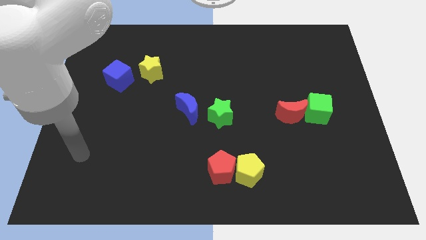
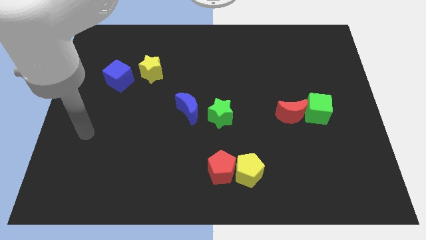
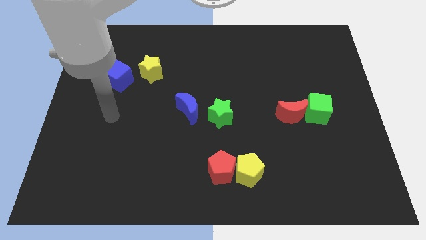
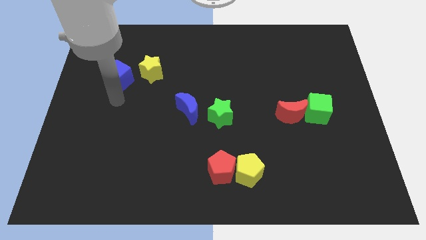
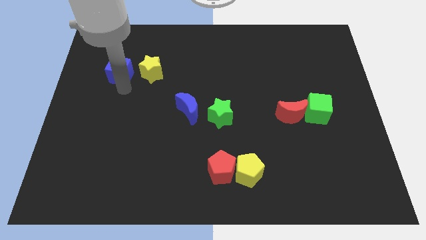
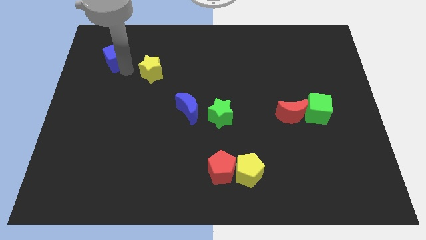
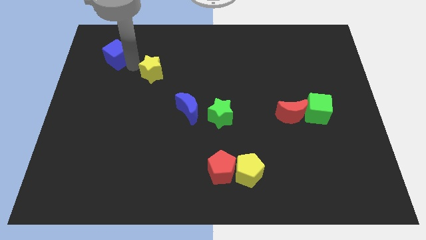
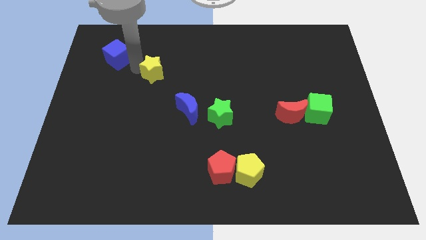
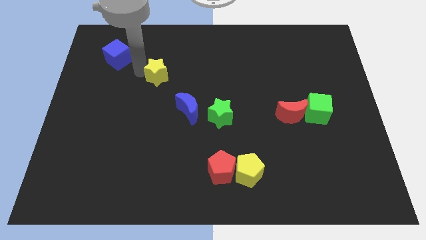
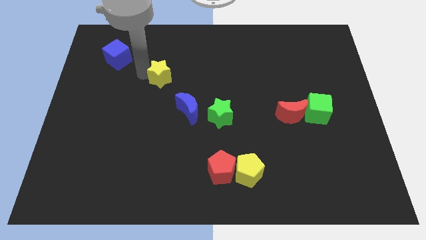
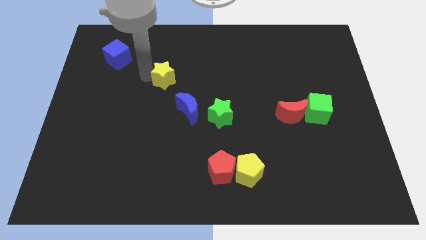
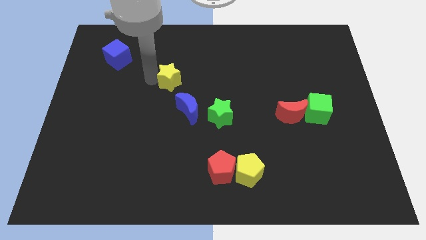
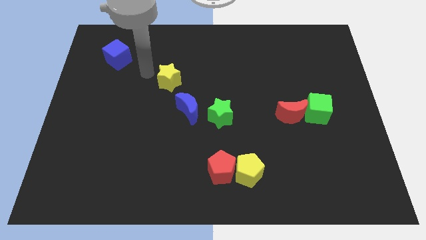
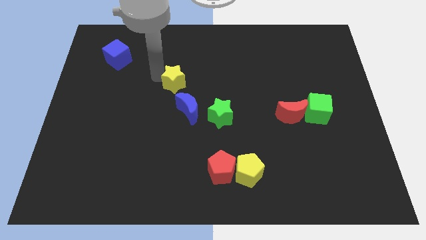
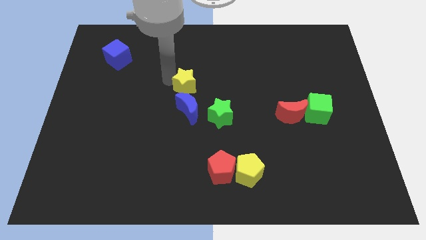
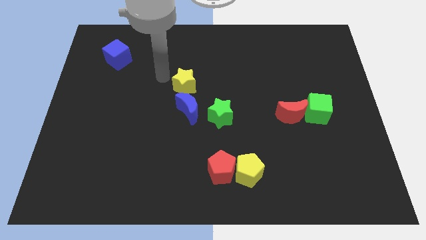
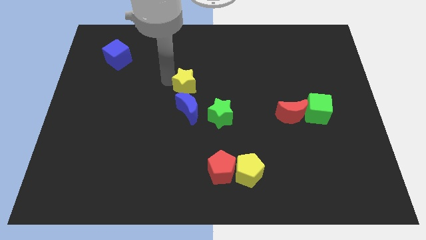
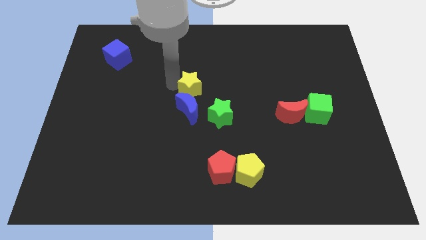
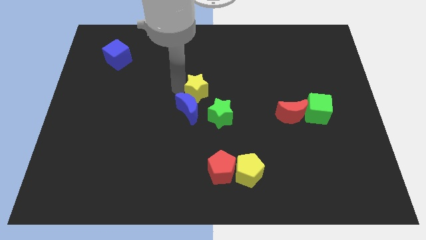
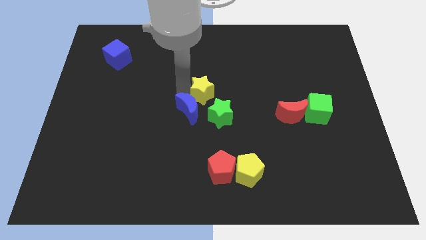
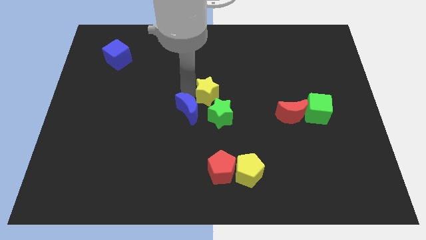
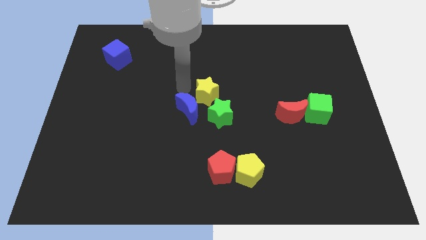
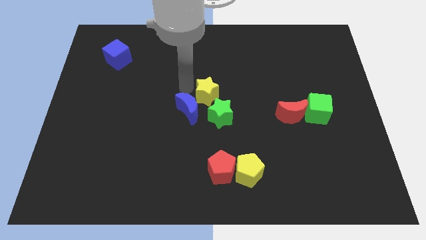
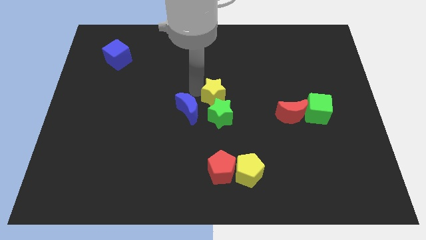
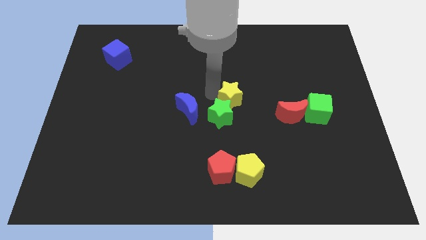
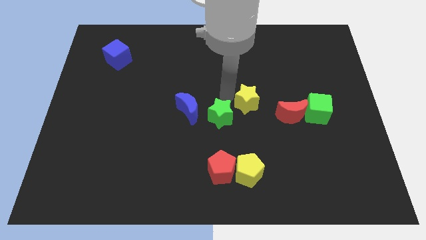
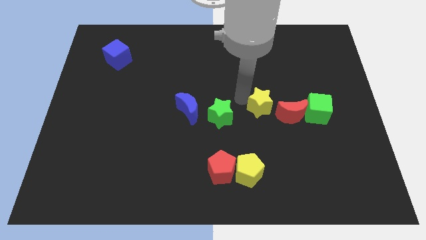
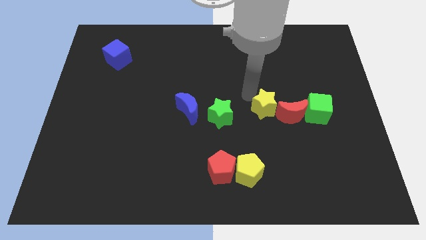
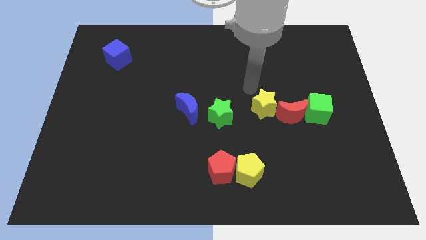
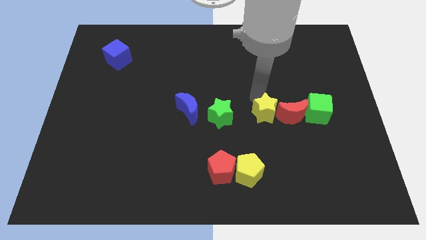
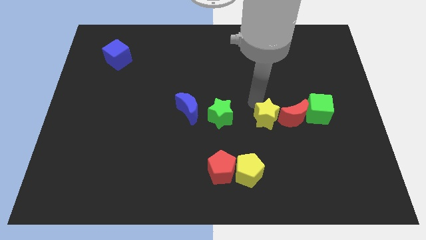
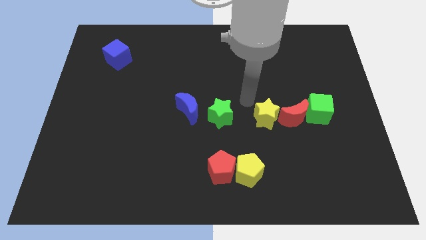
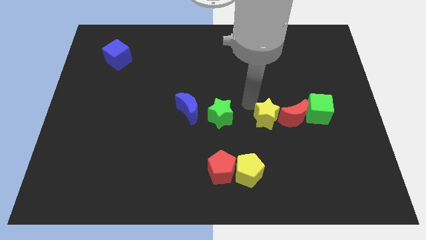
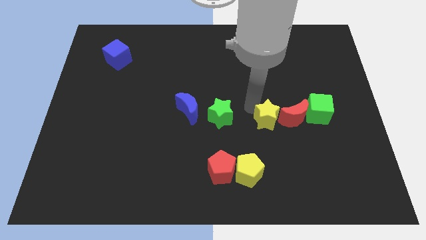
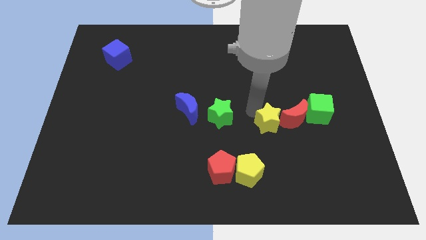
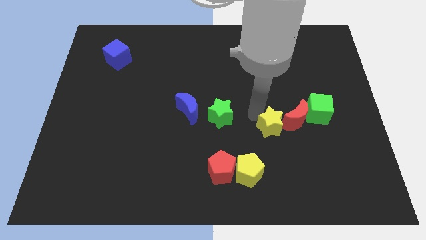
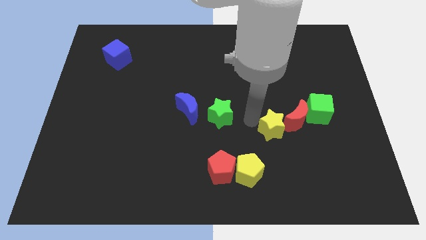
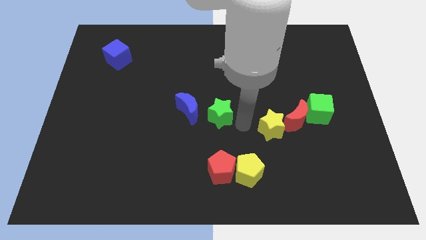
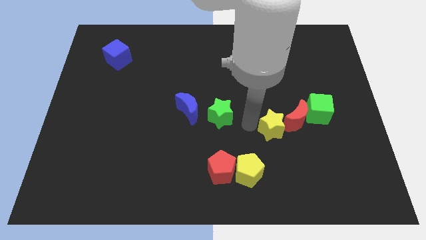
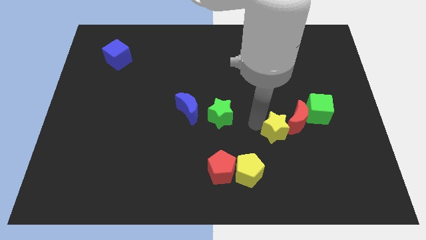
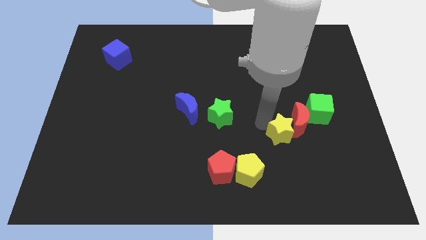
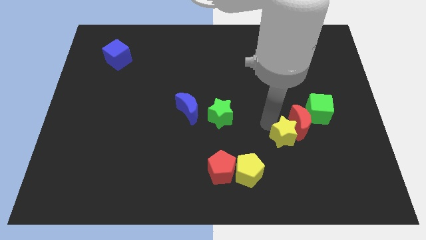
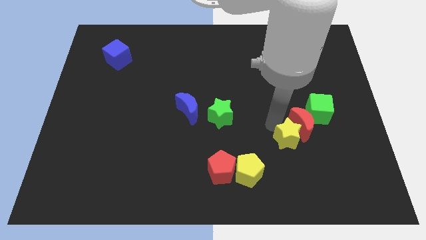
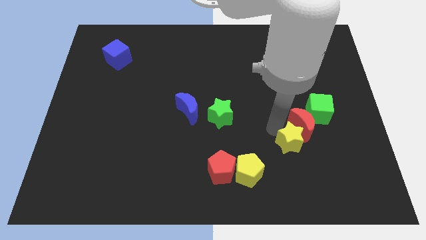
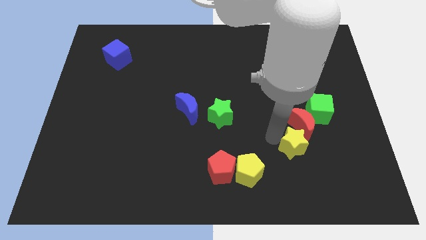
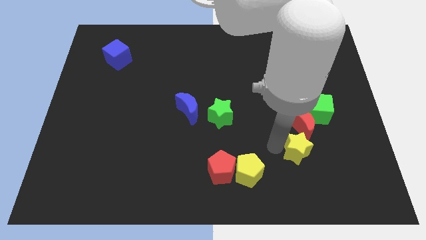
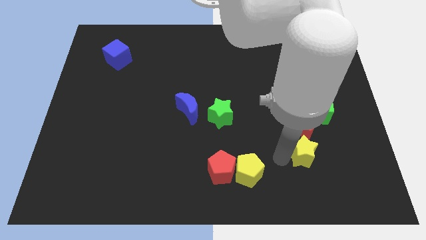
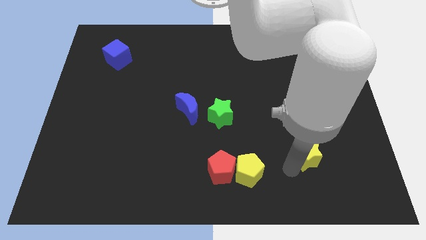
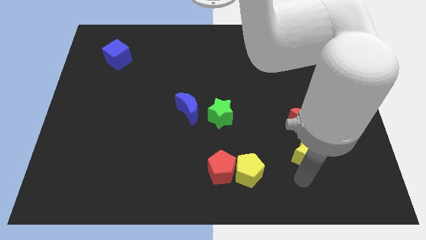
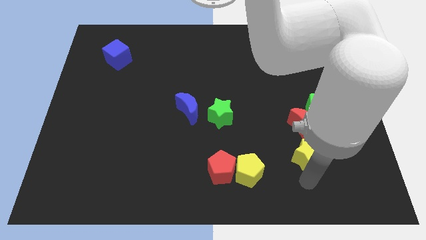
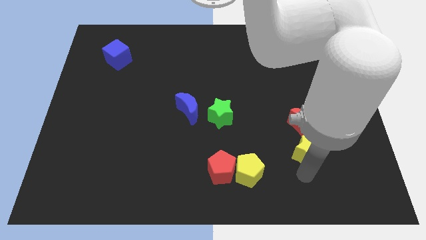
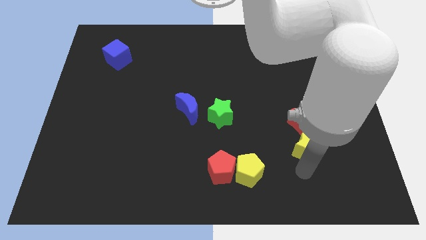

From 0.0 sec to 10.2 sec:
put the yellow star diagonally down and to the right of the red moon

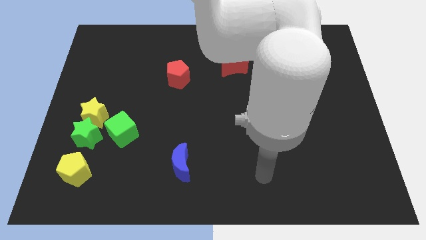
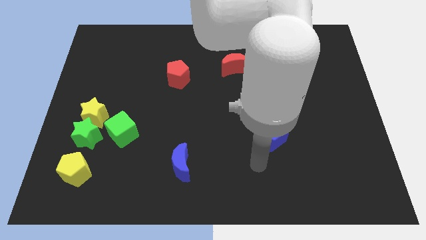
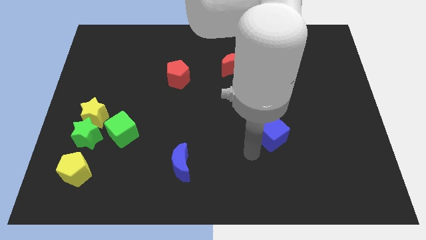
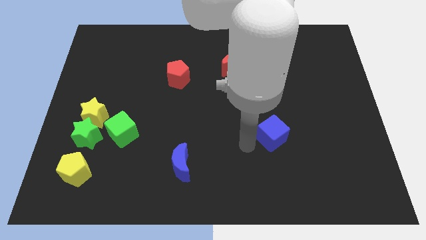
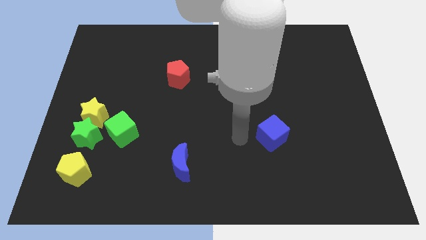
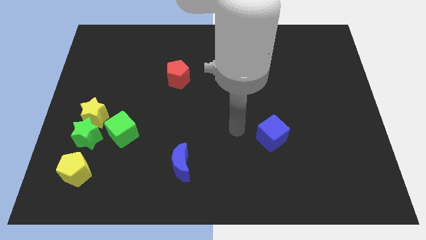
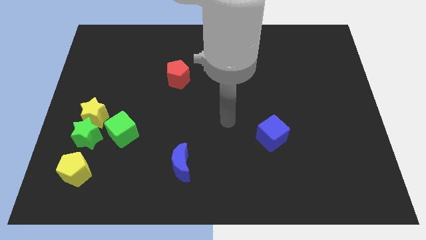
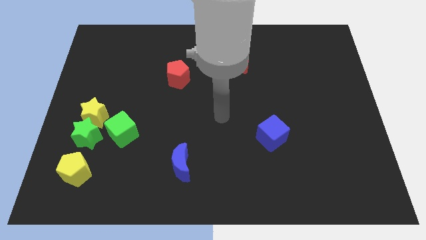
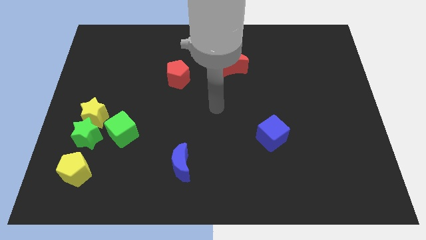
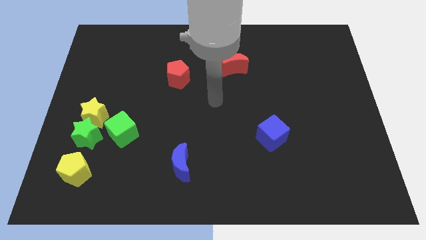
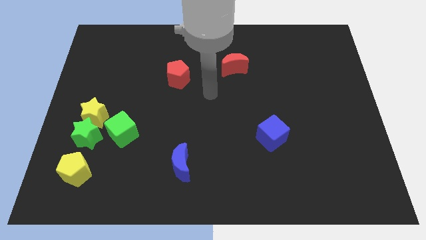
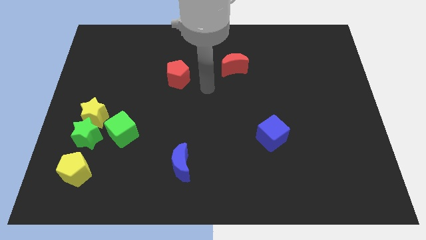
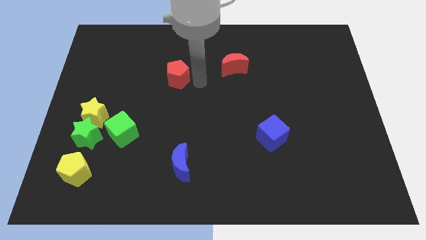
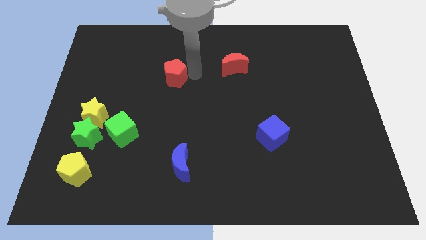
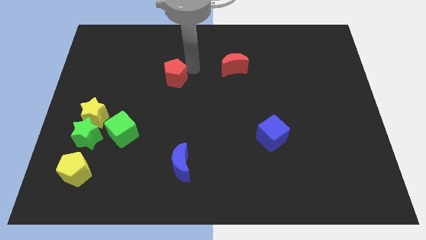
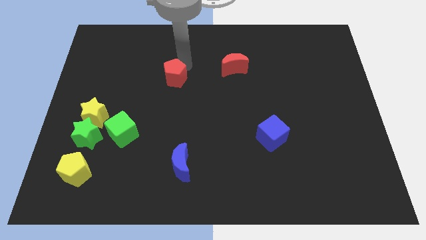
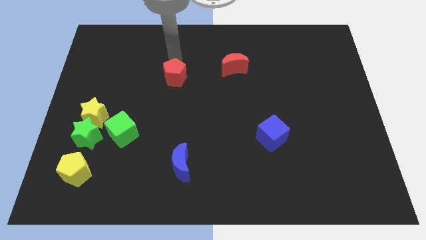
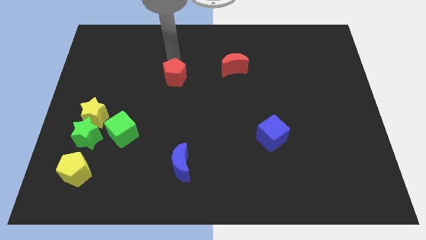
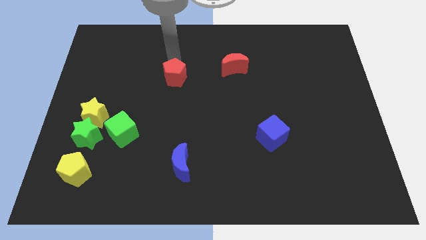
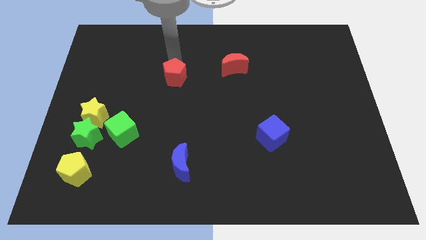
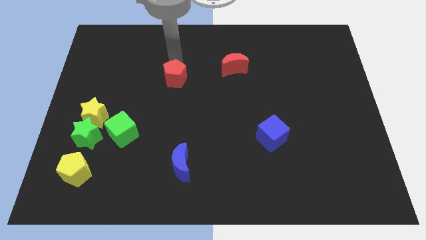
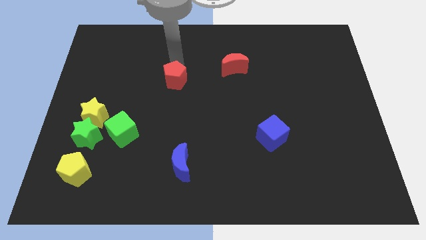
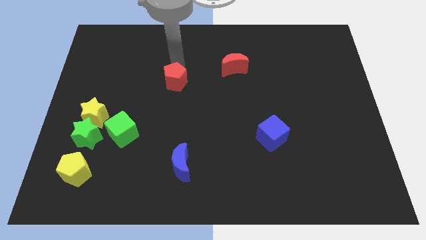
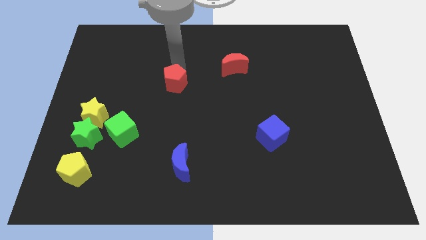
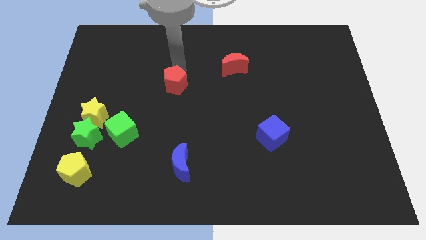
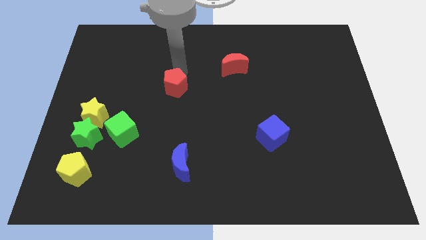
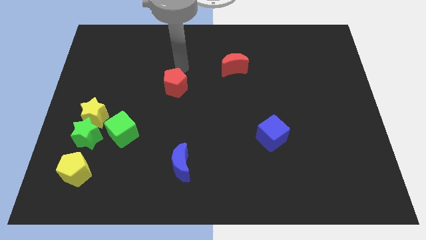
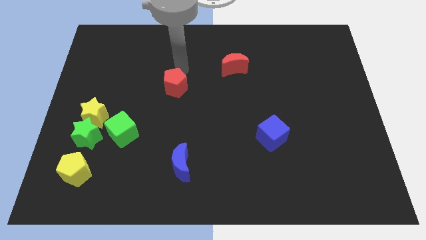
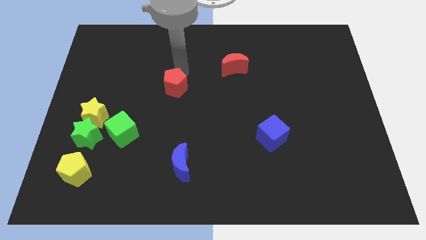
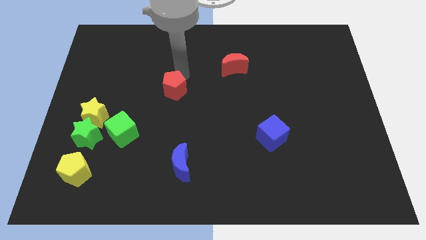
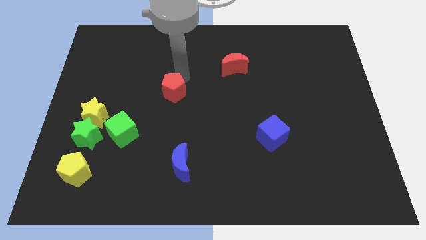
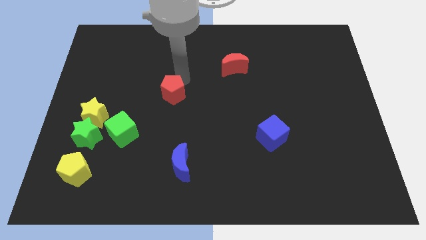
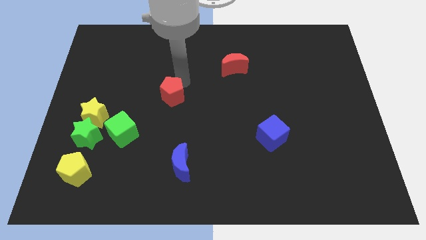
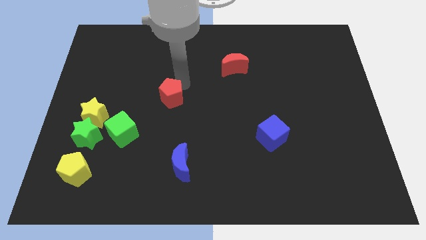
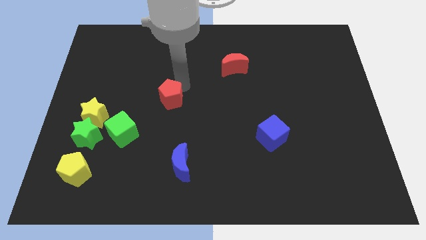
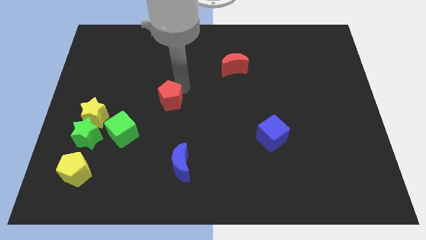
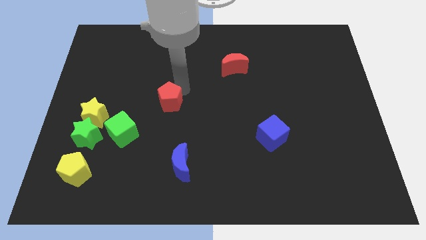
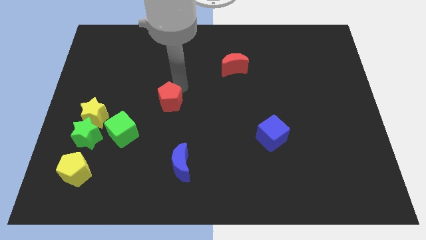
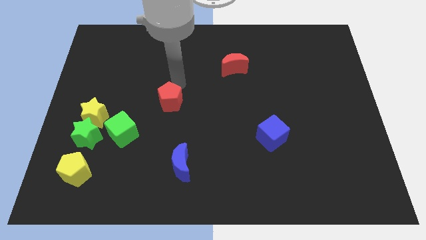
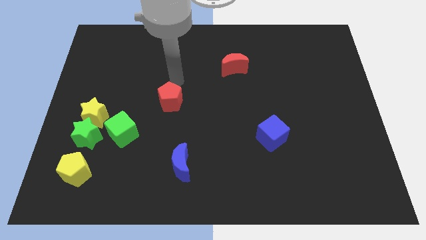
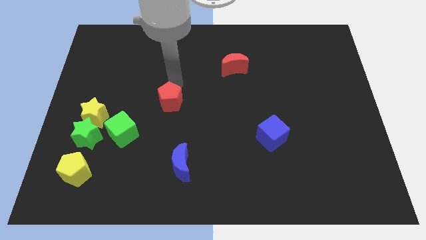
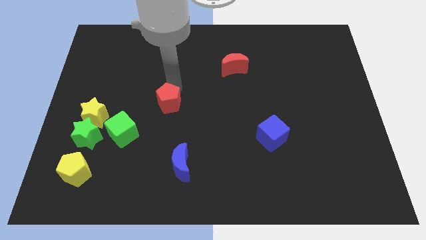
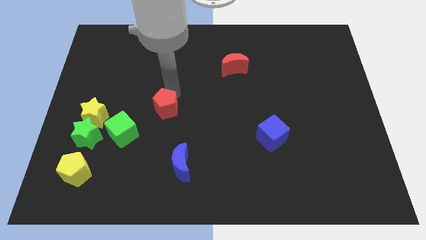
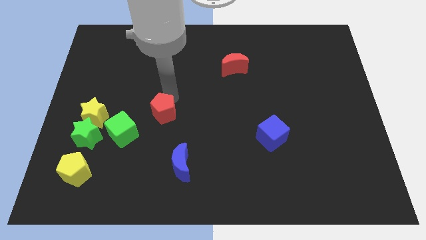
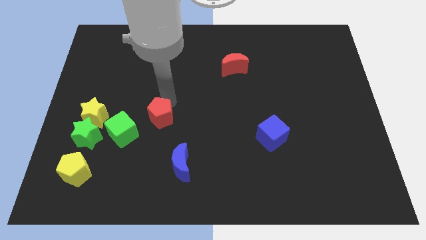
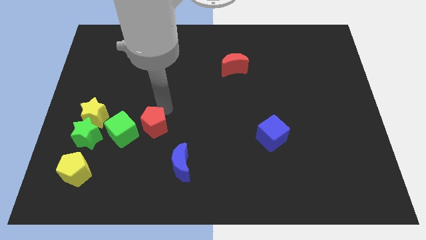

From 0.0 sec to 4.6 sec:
slide the red pentagon to the top left side of the blue moon
